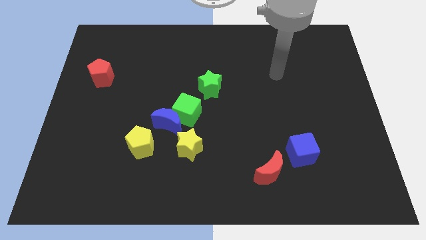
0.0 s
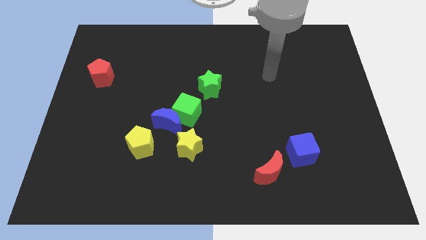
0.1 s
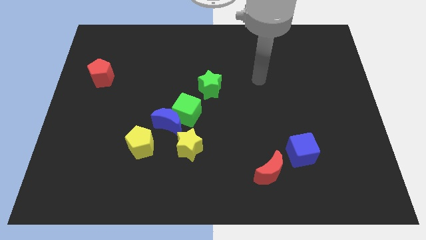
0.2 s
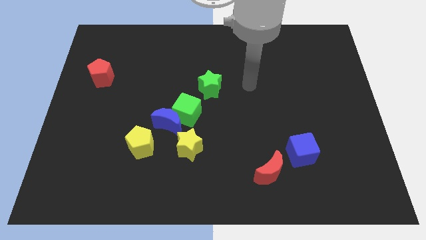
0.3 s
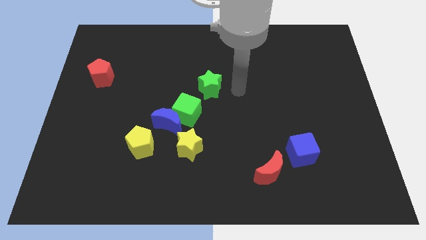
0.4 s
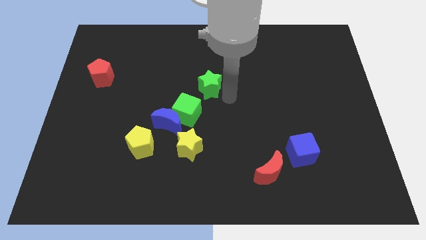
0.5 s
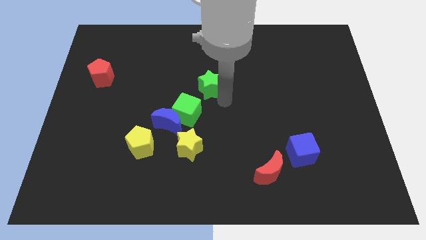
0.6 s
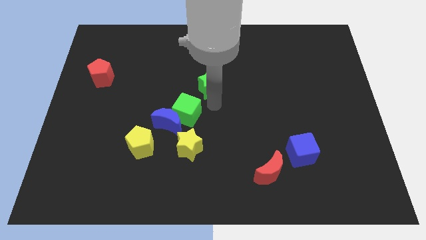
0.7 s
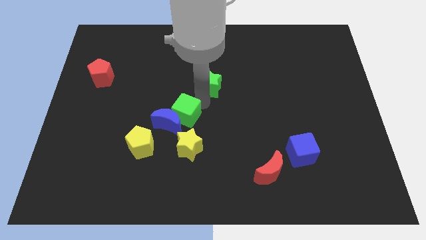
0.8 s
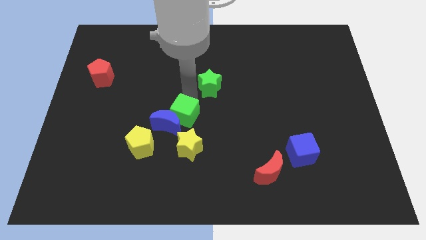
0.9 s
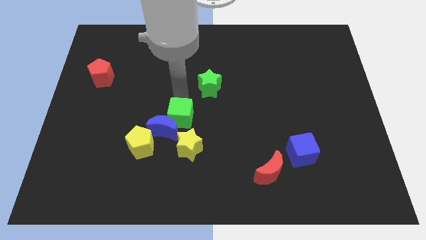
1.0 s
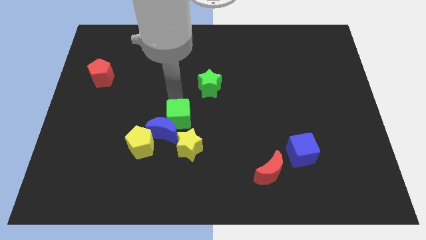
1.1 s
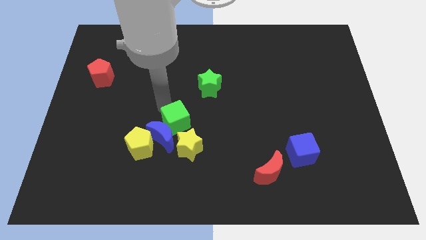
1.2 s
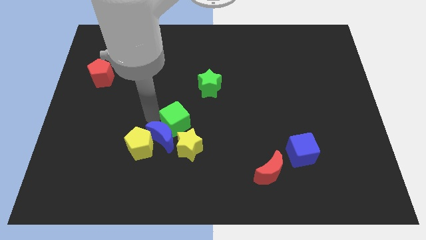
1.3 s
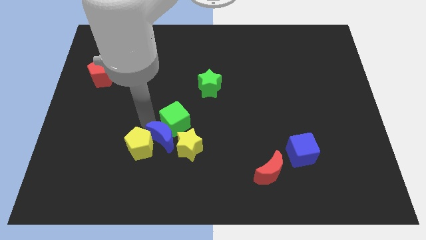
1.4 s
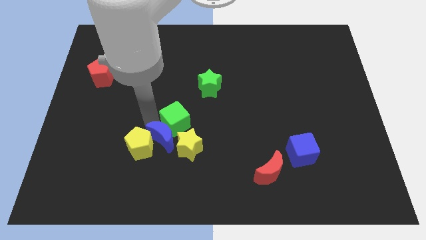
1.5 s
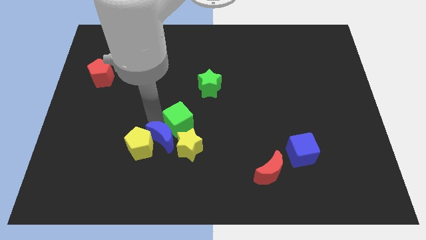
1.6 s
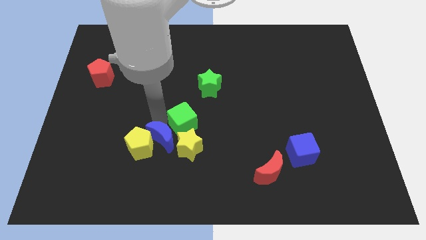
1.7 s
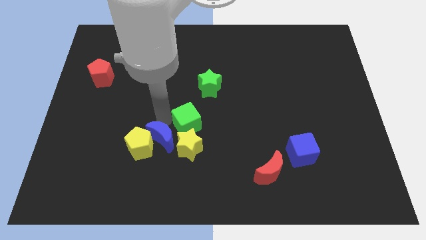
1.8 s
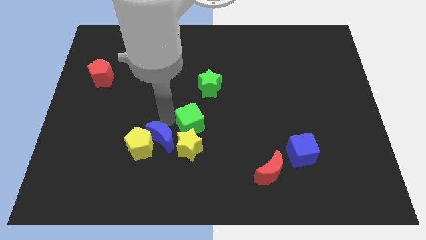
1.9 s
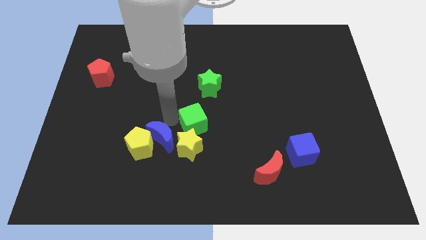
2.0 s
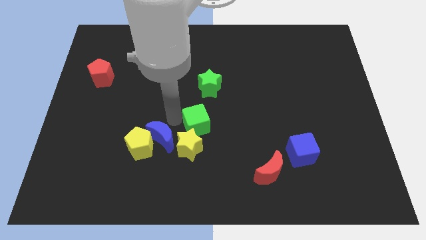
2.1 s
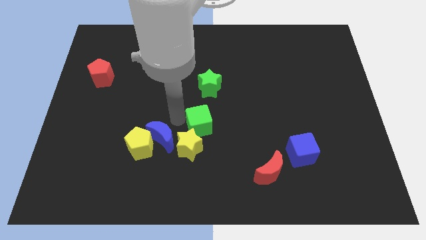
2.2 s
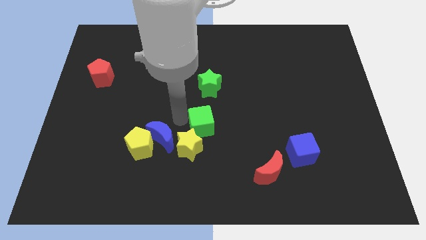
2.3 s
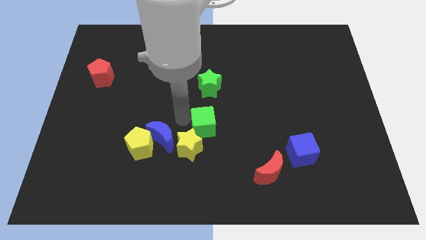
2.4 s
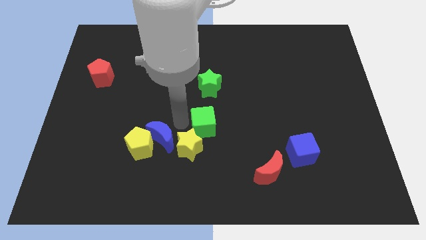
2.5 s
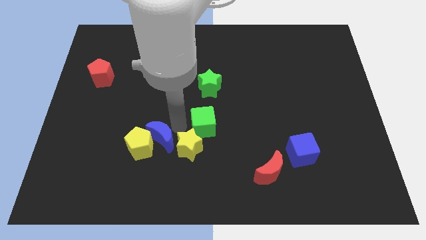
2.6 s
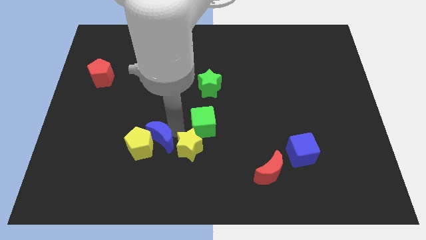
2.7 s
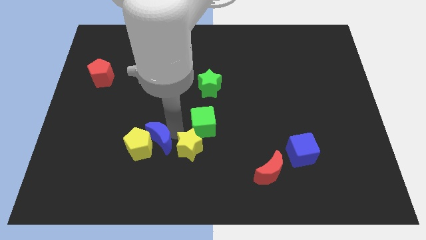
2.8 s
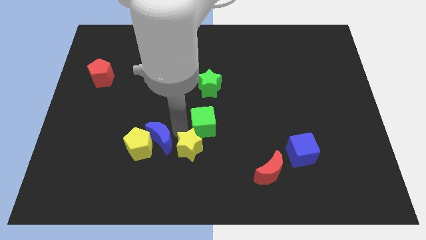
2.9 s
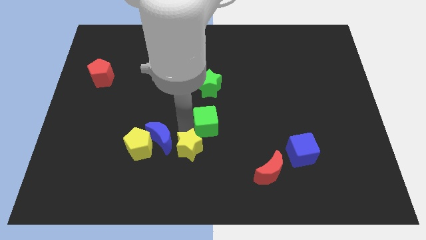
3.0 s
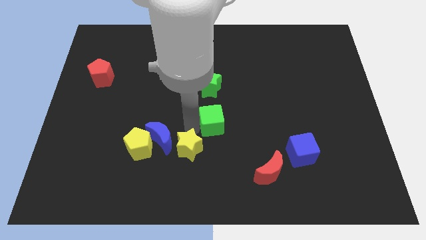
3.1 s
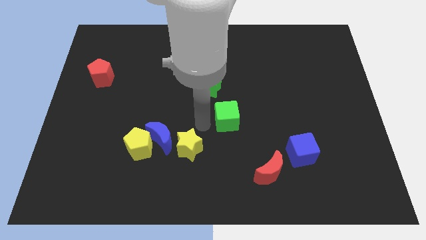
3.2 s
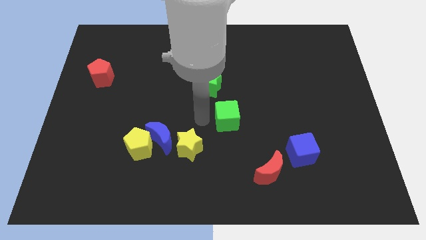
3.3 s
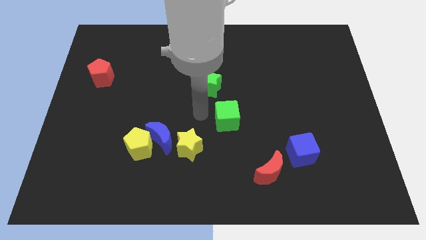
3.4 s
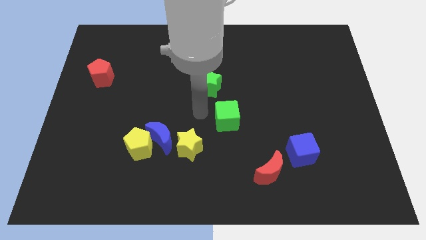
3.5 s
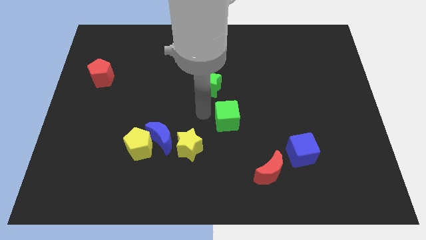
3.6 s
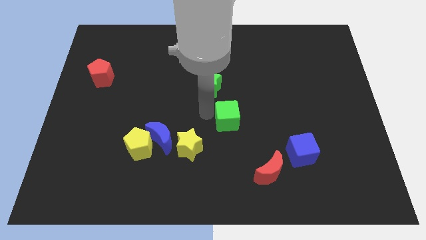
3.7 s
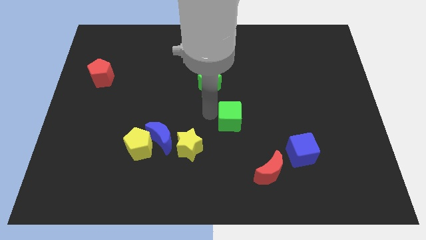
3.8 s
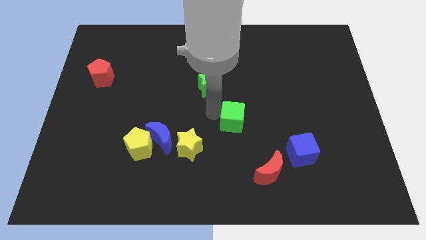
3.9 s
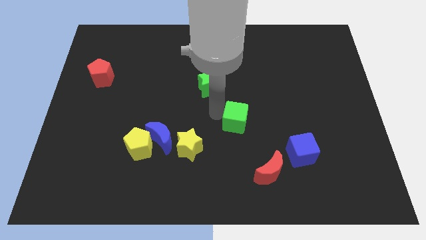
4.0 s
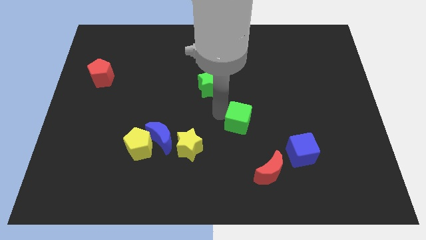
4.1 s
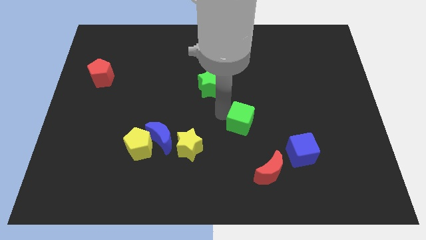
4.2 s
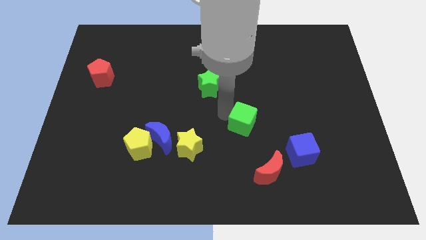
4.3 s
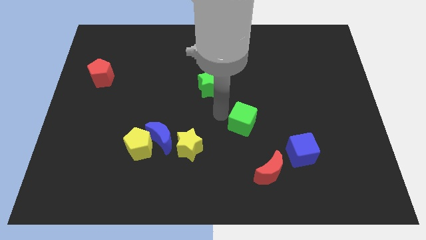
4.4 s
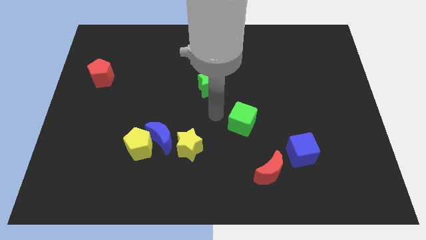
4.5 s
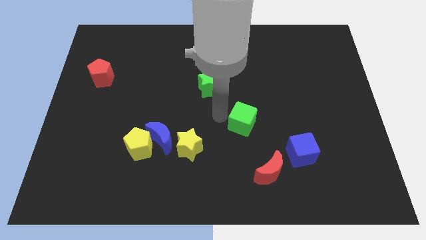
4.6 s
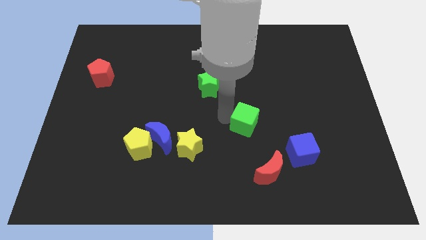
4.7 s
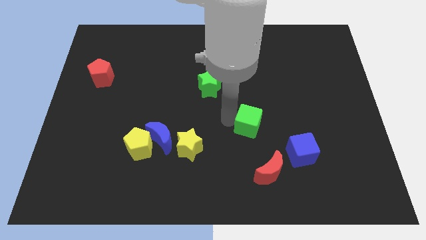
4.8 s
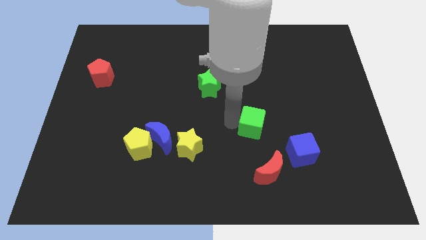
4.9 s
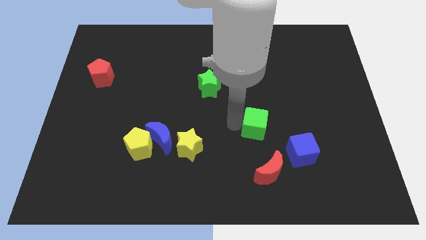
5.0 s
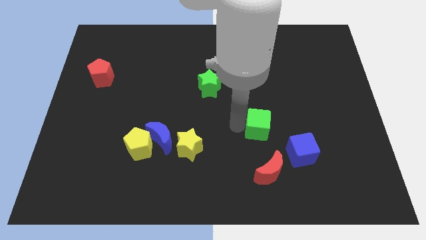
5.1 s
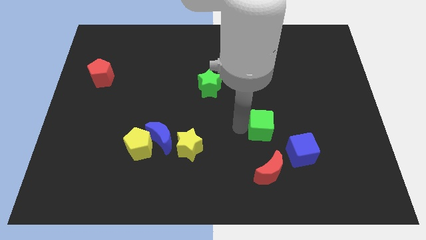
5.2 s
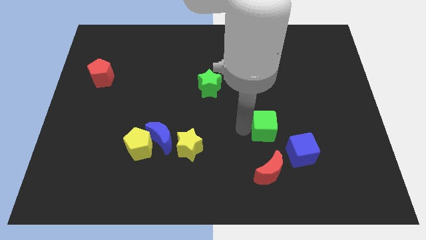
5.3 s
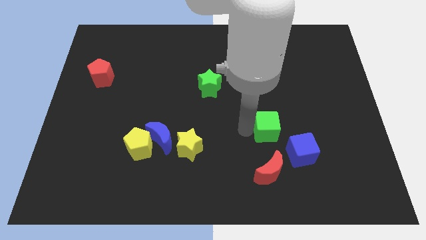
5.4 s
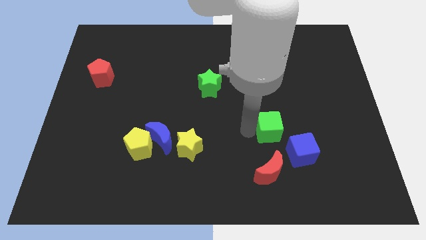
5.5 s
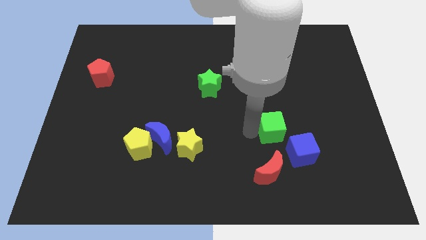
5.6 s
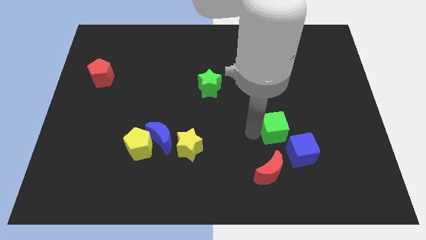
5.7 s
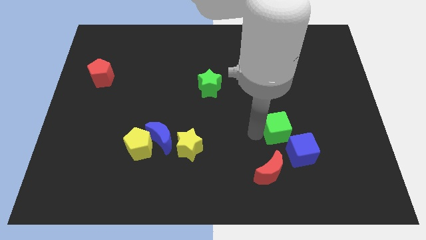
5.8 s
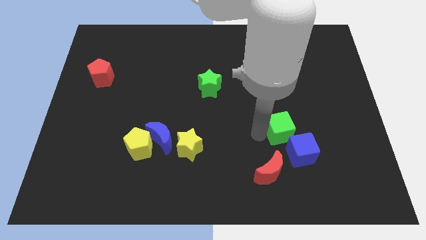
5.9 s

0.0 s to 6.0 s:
slide the green cube right

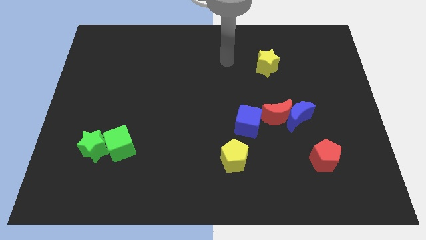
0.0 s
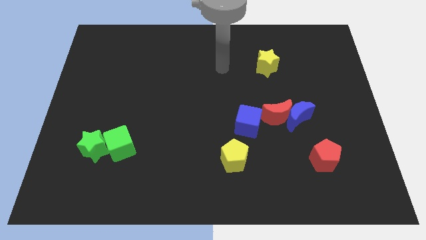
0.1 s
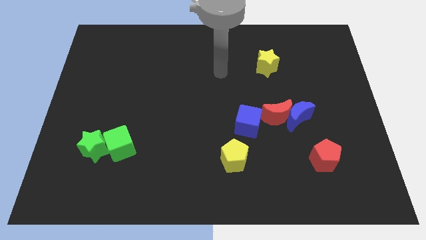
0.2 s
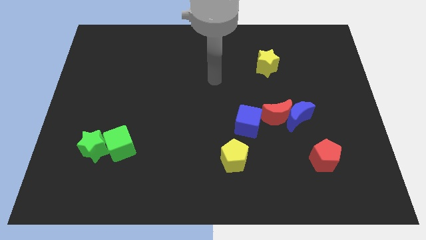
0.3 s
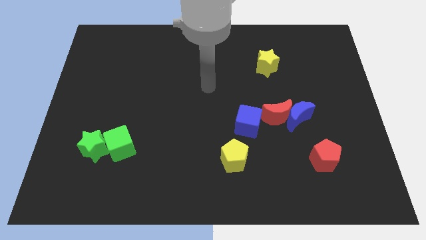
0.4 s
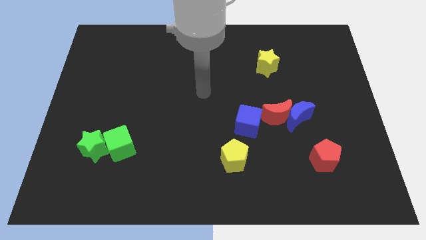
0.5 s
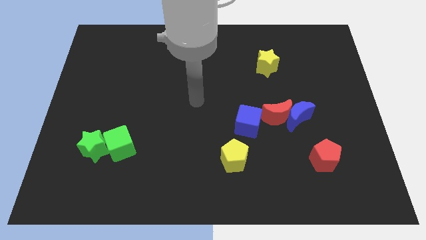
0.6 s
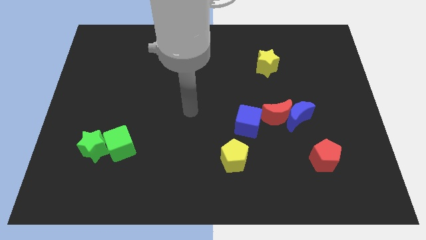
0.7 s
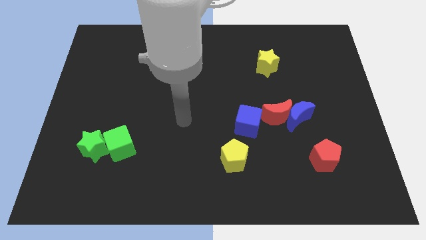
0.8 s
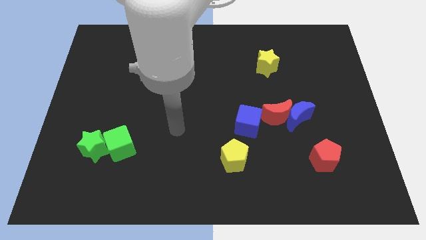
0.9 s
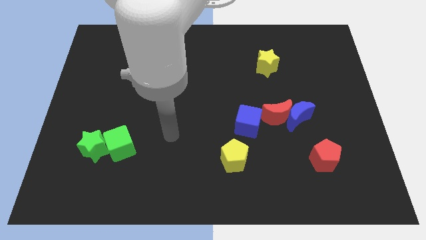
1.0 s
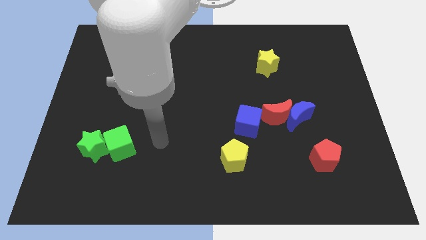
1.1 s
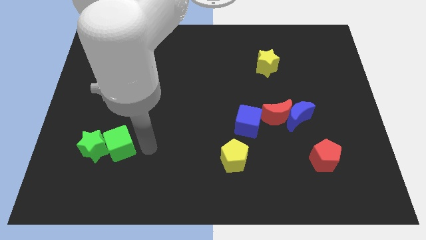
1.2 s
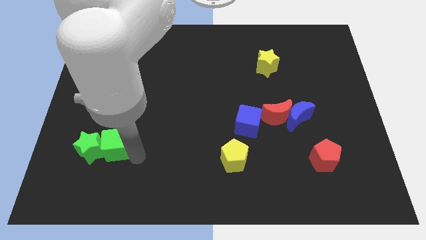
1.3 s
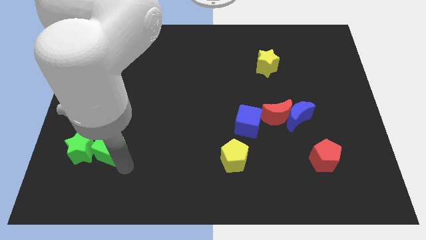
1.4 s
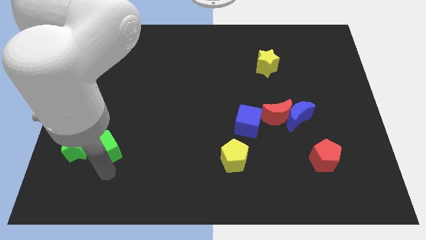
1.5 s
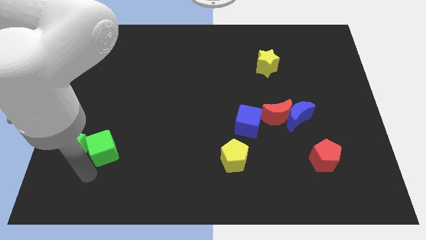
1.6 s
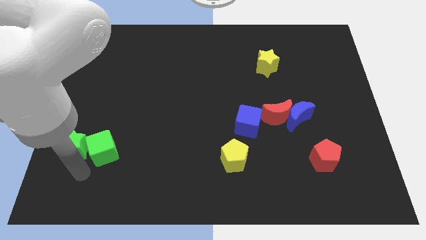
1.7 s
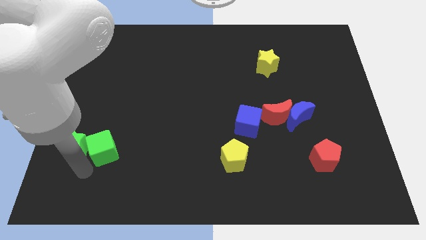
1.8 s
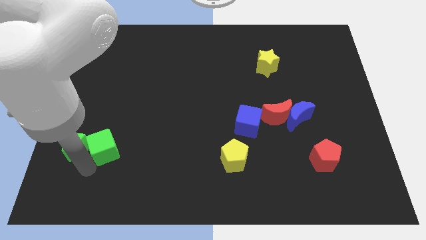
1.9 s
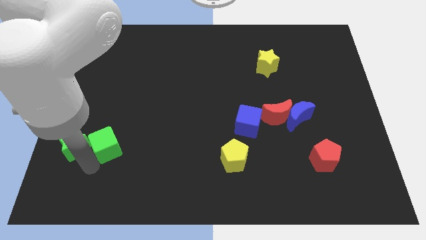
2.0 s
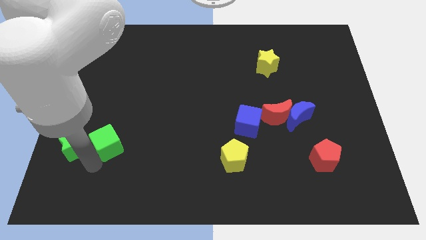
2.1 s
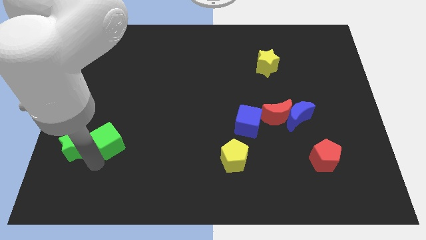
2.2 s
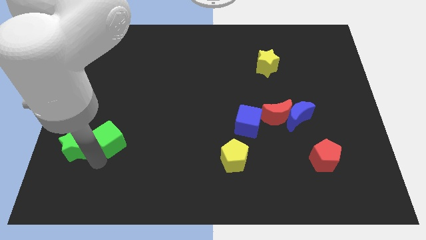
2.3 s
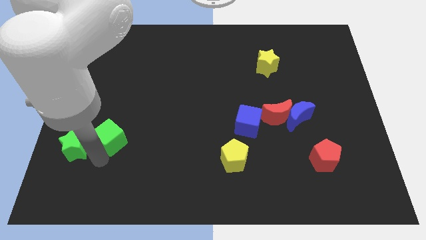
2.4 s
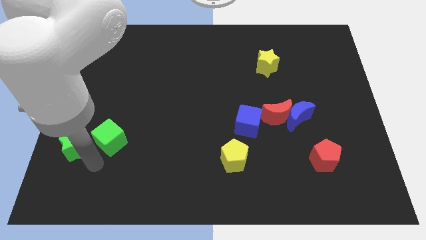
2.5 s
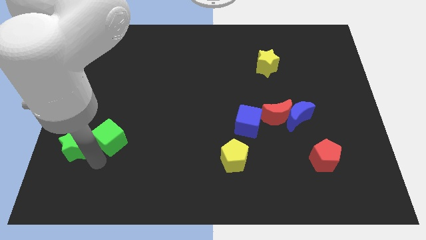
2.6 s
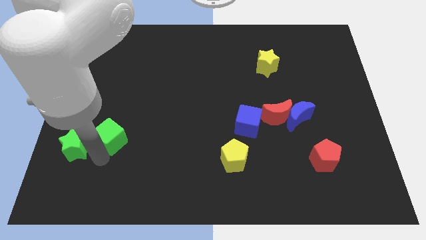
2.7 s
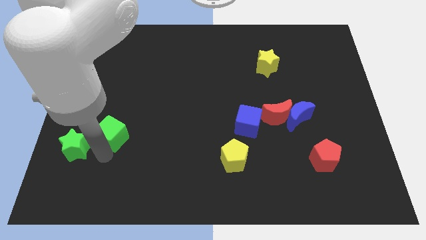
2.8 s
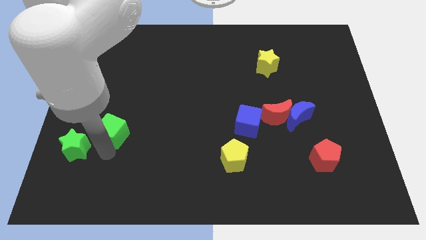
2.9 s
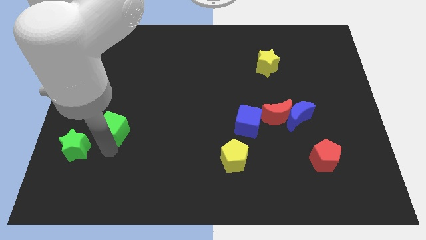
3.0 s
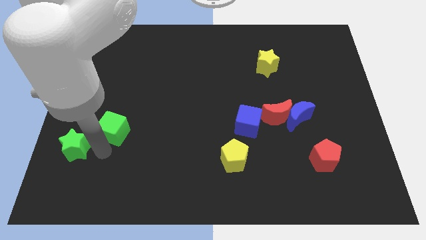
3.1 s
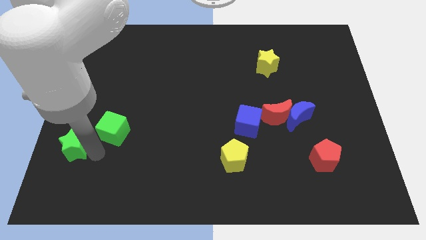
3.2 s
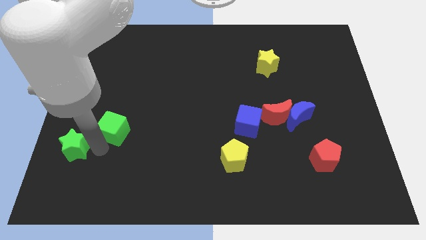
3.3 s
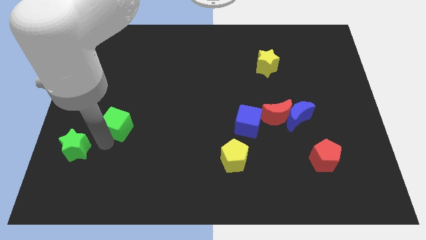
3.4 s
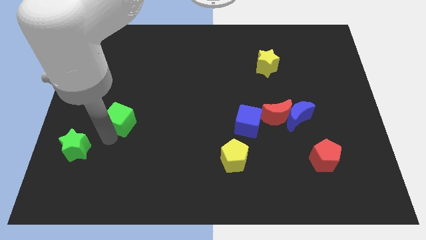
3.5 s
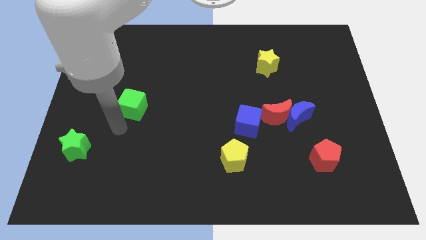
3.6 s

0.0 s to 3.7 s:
move the green cube upwards slightly
